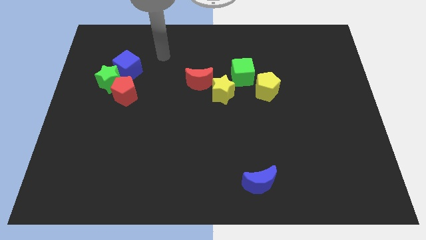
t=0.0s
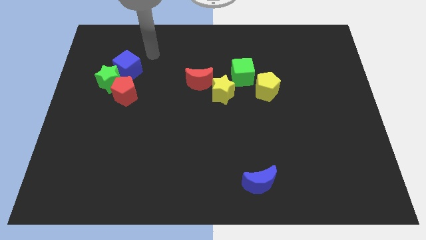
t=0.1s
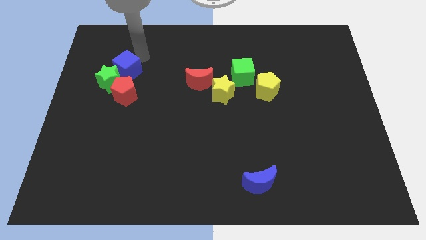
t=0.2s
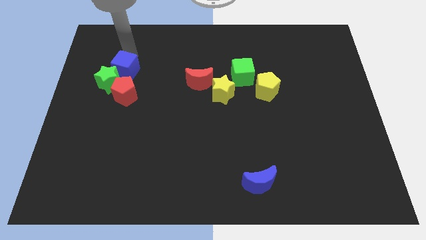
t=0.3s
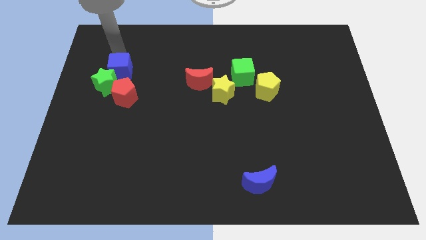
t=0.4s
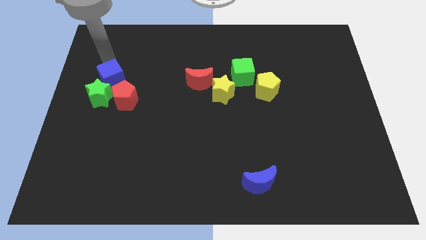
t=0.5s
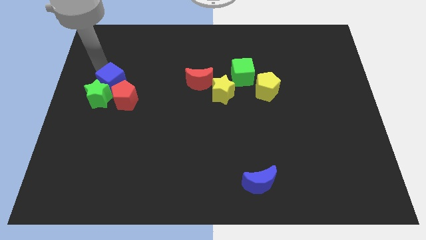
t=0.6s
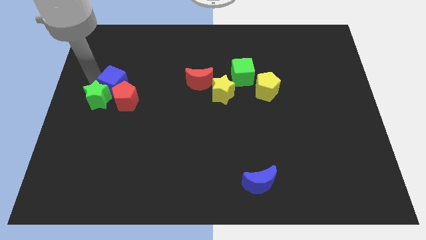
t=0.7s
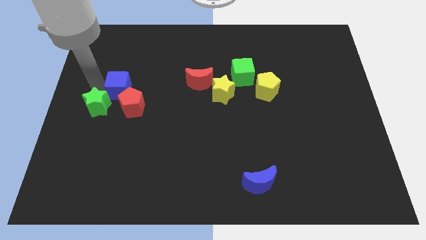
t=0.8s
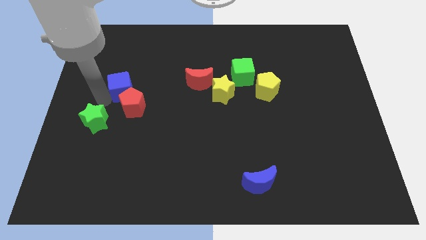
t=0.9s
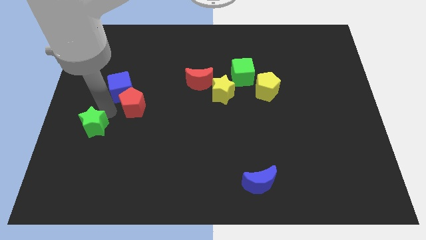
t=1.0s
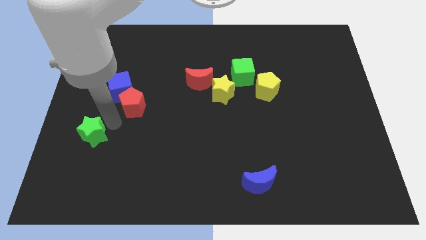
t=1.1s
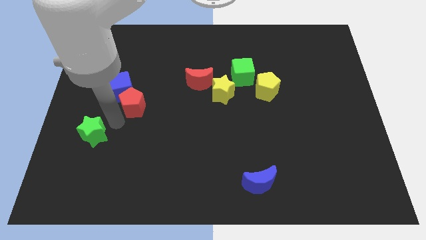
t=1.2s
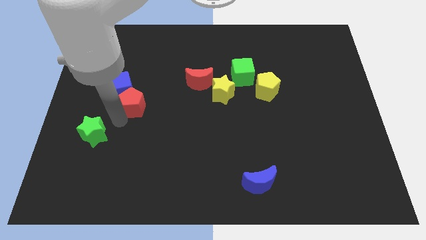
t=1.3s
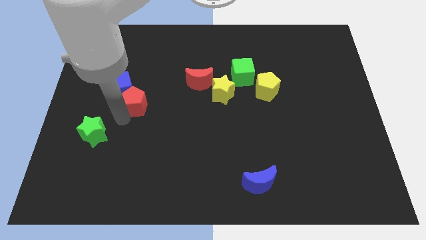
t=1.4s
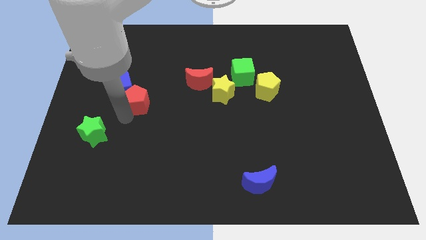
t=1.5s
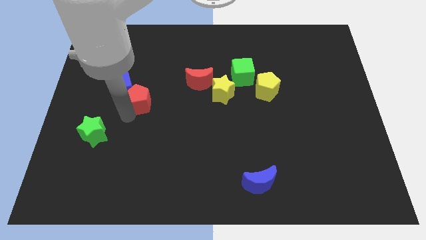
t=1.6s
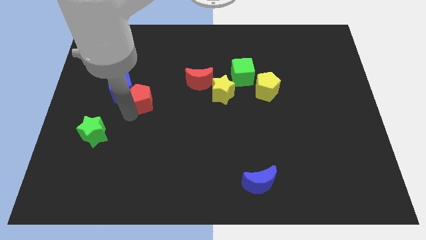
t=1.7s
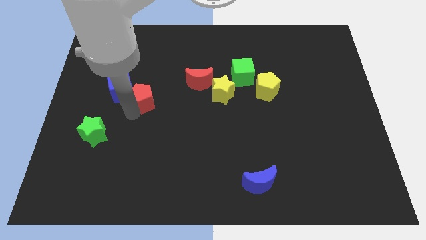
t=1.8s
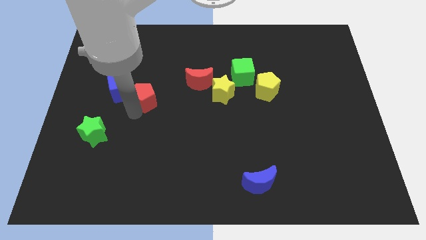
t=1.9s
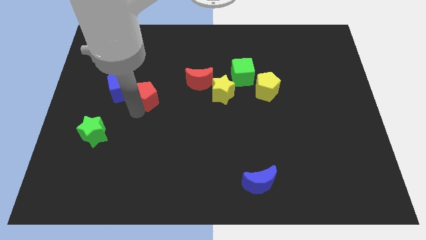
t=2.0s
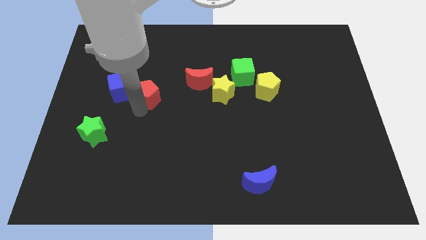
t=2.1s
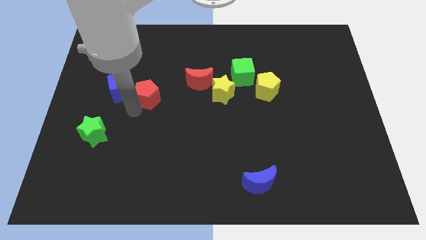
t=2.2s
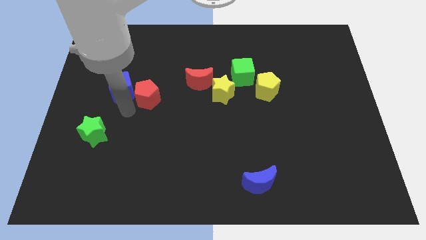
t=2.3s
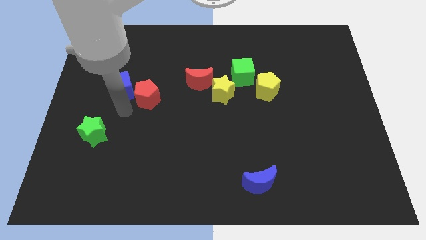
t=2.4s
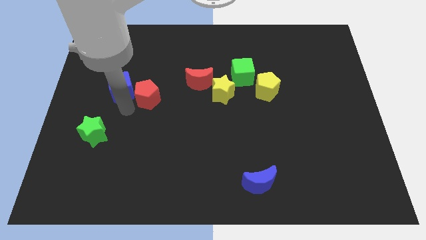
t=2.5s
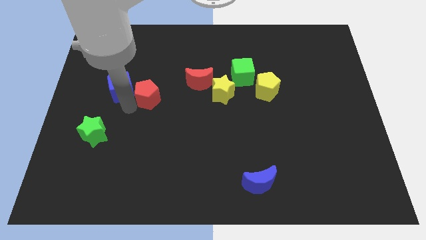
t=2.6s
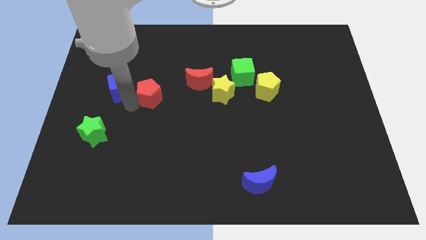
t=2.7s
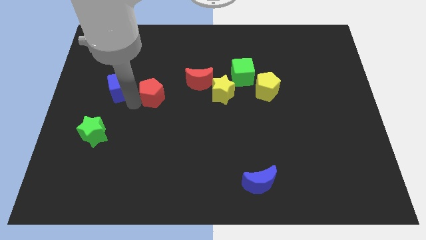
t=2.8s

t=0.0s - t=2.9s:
slide the red pentagon a little to the right

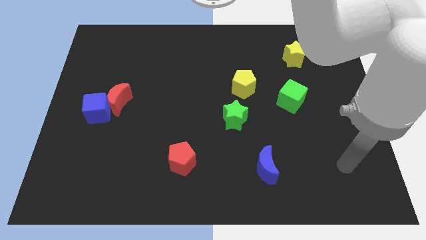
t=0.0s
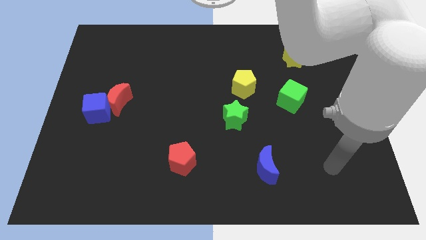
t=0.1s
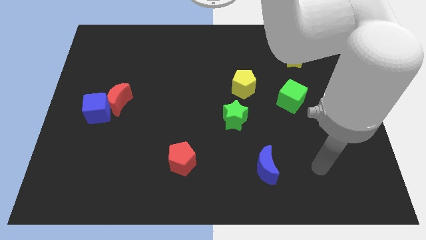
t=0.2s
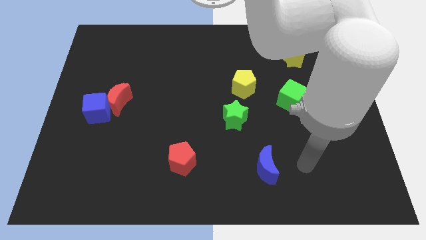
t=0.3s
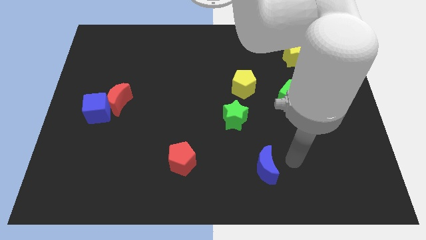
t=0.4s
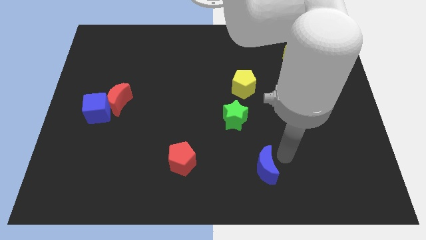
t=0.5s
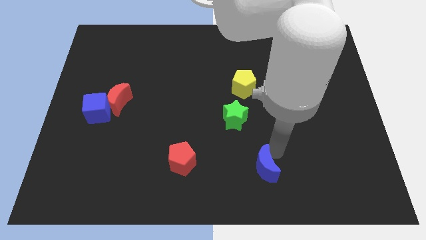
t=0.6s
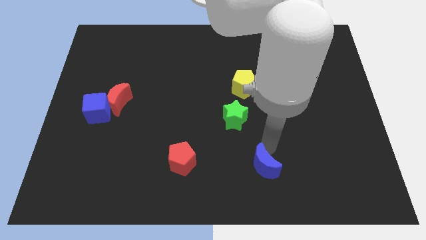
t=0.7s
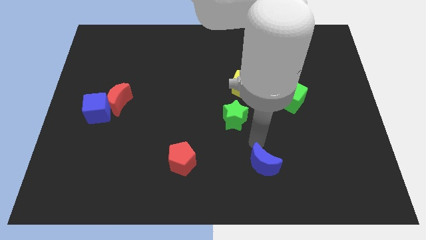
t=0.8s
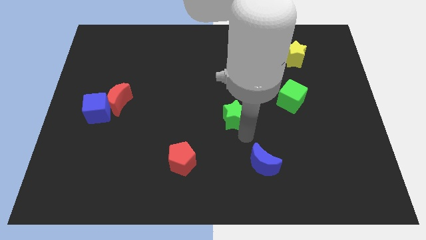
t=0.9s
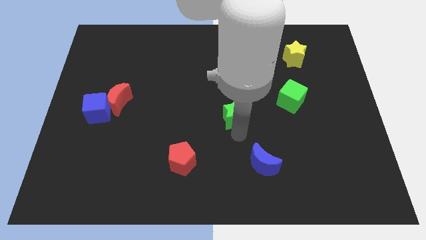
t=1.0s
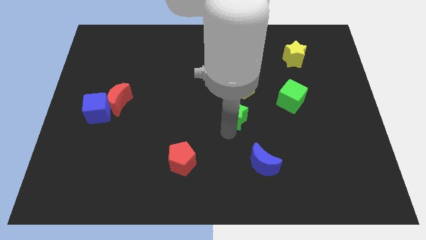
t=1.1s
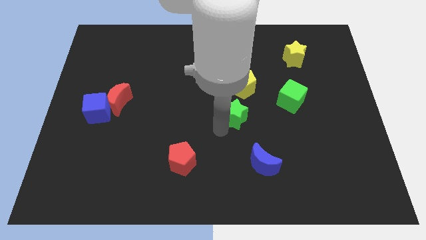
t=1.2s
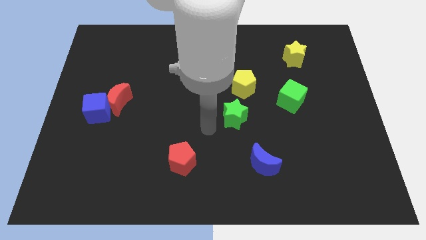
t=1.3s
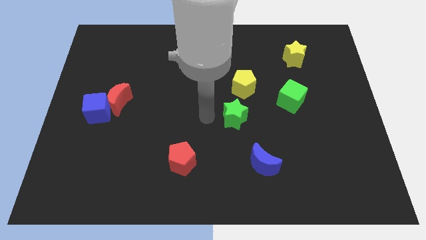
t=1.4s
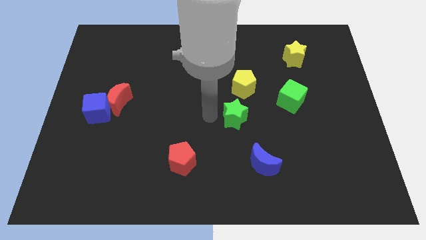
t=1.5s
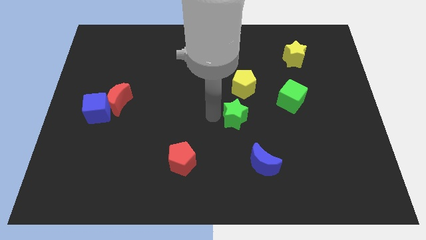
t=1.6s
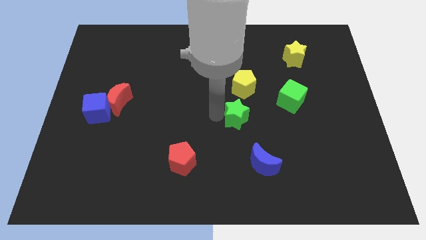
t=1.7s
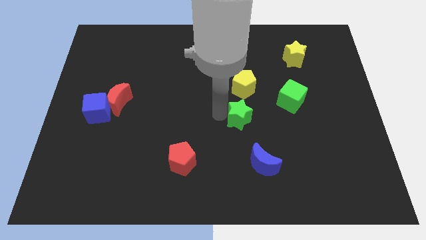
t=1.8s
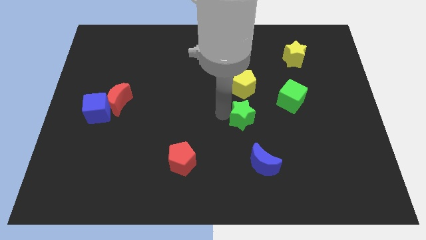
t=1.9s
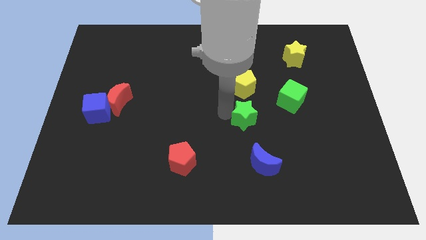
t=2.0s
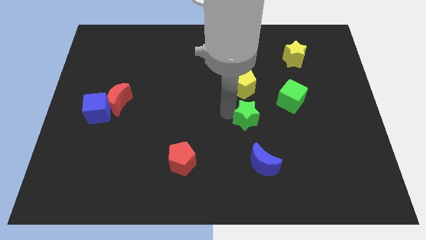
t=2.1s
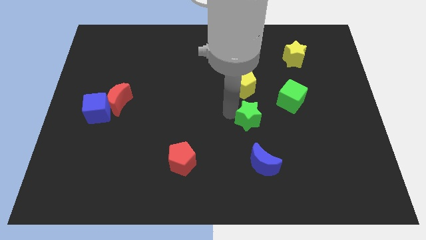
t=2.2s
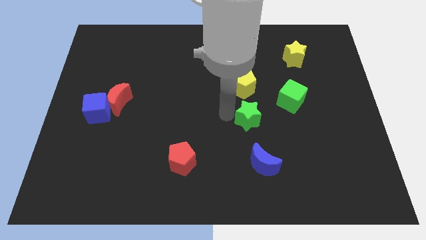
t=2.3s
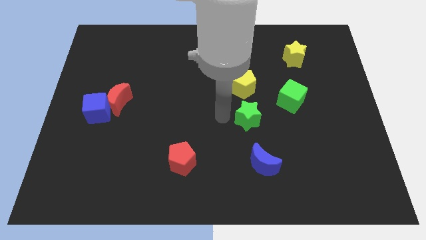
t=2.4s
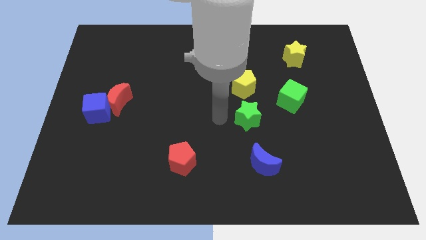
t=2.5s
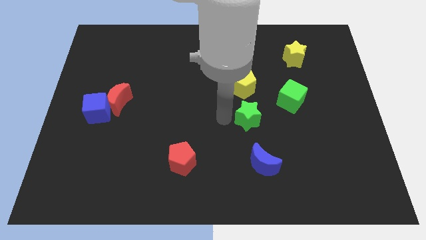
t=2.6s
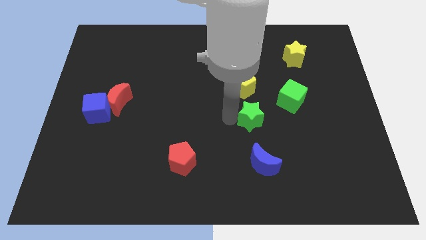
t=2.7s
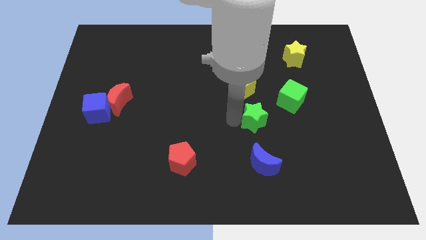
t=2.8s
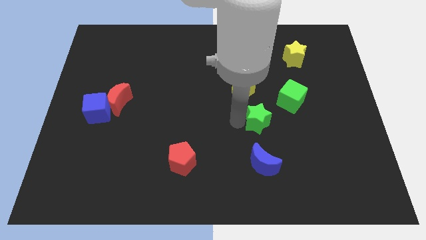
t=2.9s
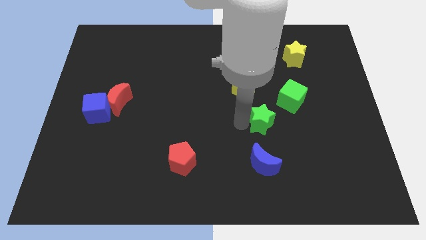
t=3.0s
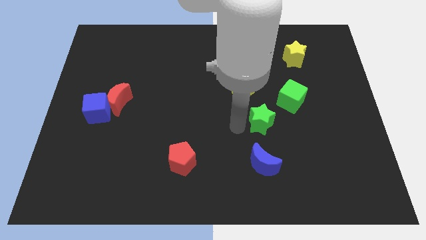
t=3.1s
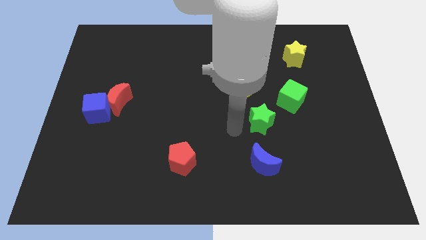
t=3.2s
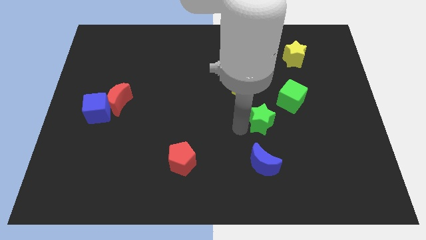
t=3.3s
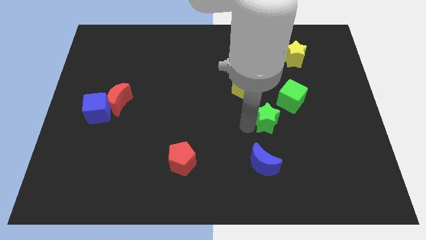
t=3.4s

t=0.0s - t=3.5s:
slightly push the green star right

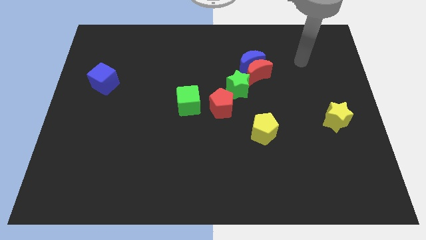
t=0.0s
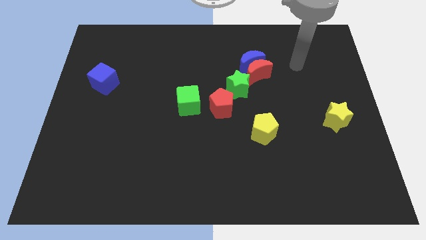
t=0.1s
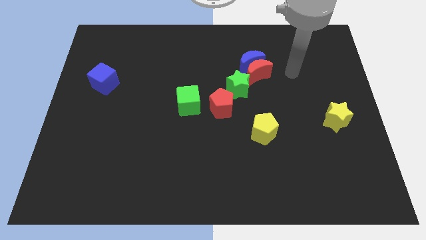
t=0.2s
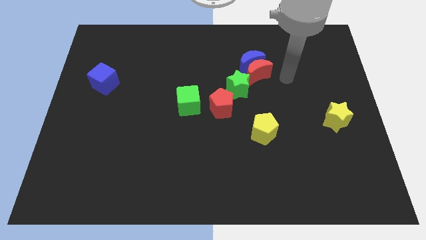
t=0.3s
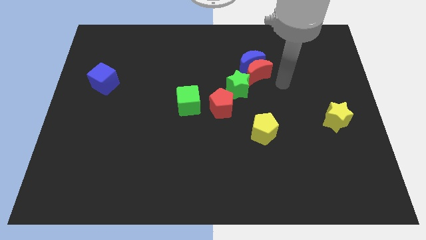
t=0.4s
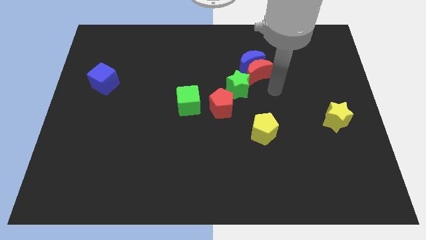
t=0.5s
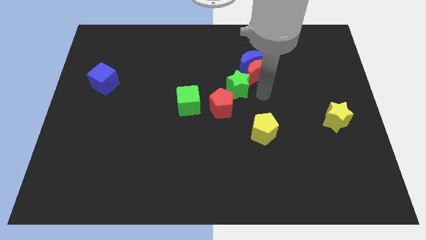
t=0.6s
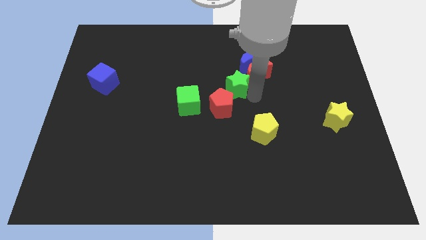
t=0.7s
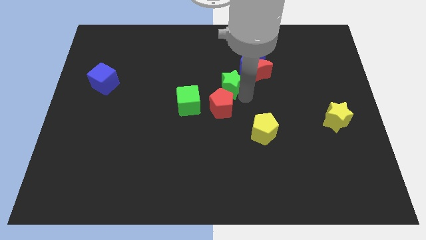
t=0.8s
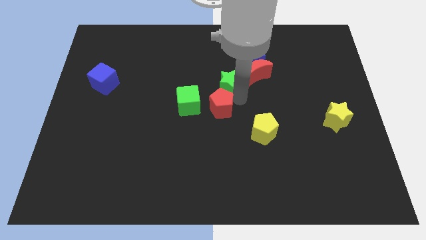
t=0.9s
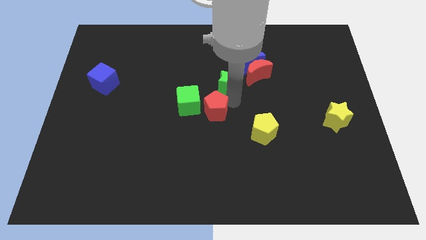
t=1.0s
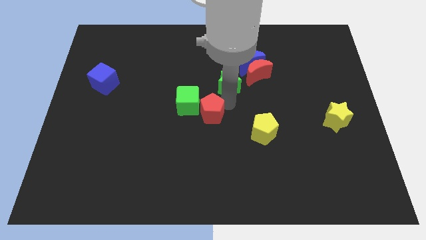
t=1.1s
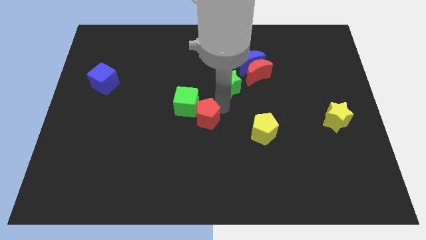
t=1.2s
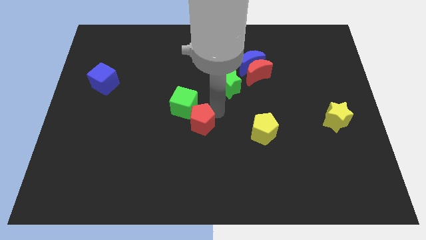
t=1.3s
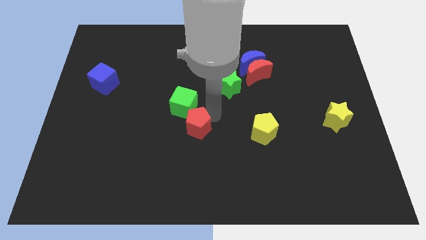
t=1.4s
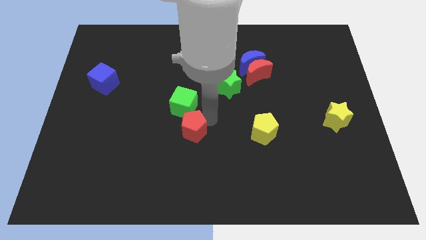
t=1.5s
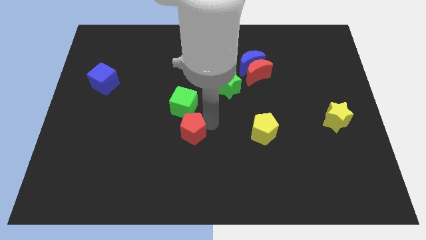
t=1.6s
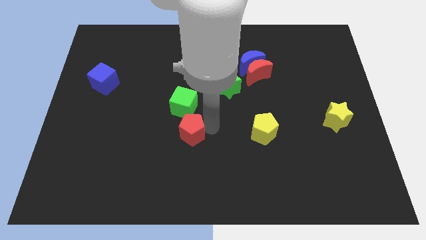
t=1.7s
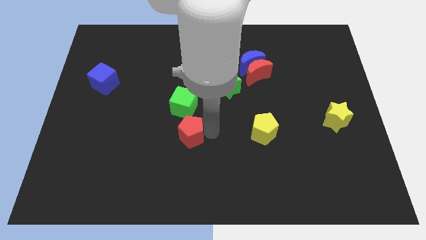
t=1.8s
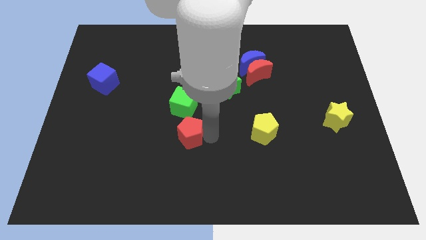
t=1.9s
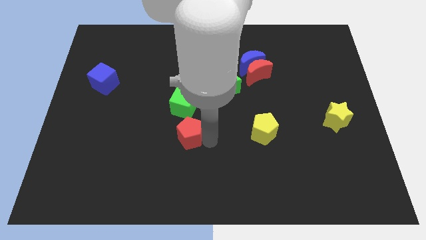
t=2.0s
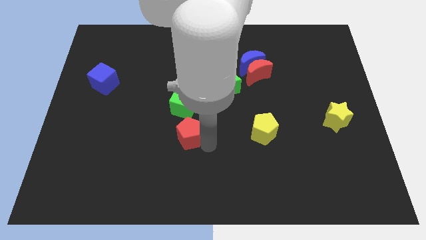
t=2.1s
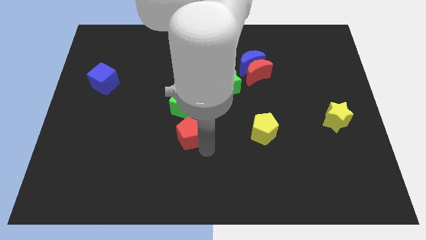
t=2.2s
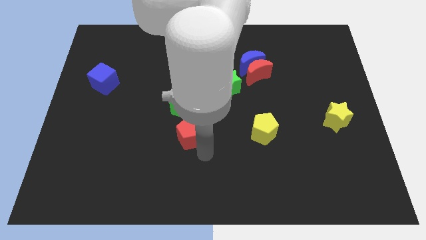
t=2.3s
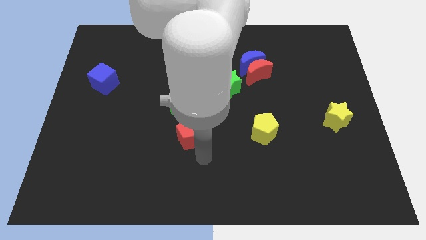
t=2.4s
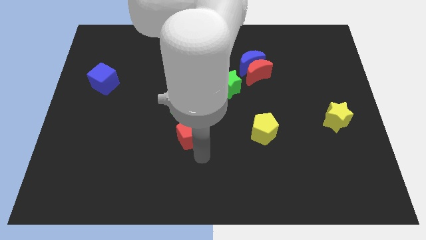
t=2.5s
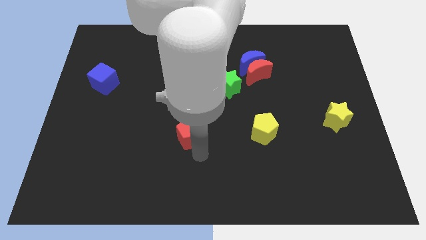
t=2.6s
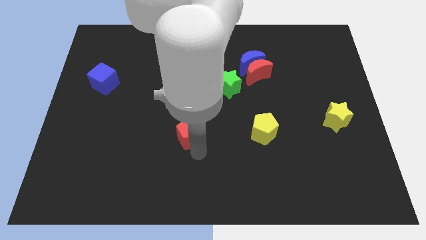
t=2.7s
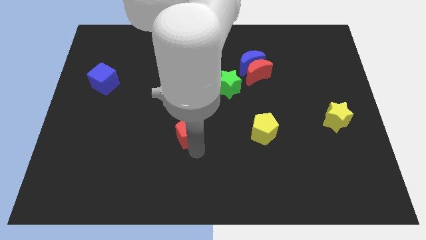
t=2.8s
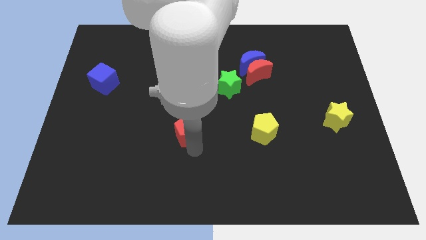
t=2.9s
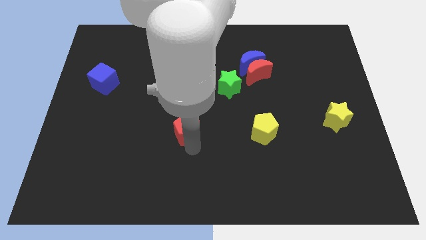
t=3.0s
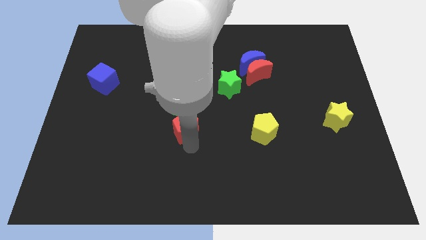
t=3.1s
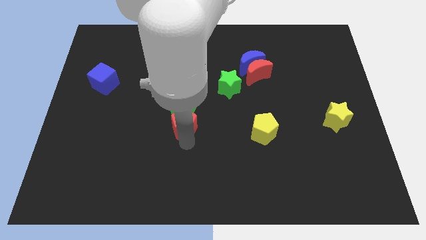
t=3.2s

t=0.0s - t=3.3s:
move the red pentagon a little to the left
